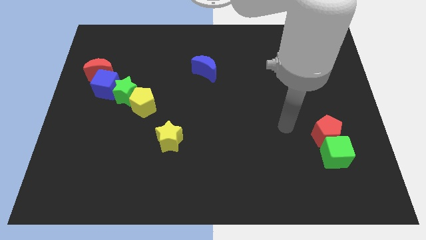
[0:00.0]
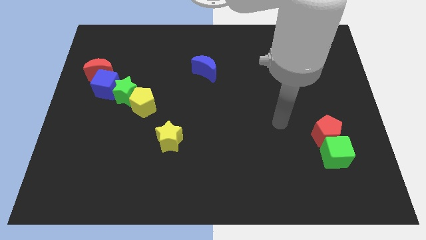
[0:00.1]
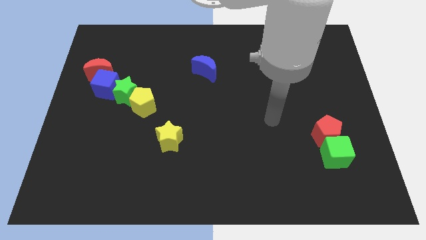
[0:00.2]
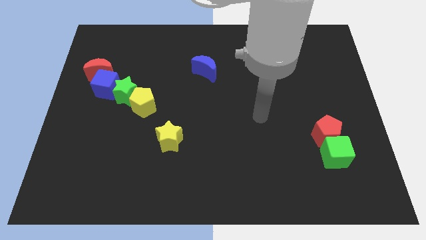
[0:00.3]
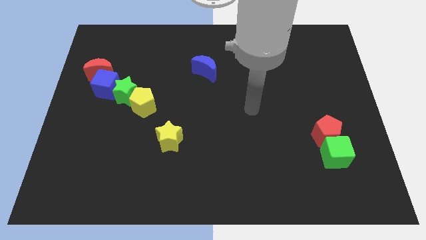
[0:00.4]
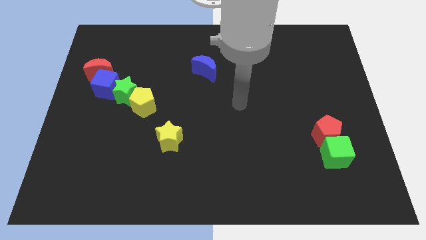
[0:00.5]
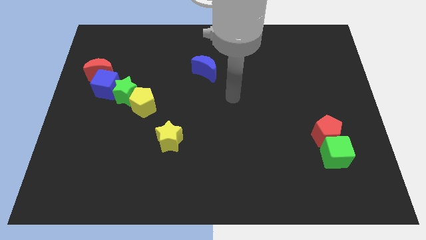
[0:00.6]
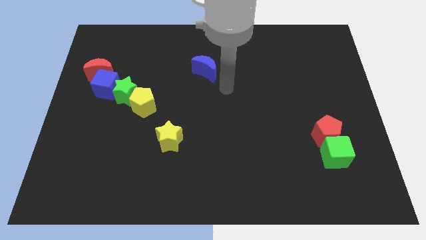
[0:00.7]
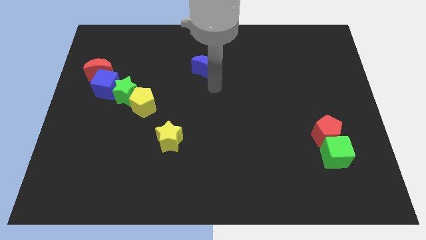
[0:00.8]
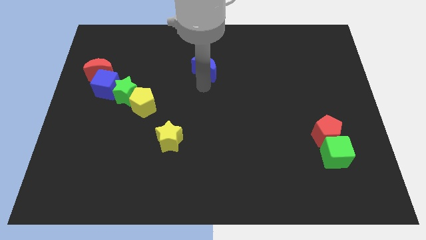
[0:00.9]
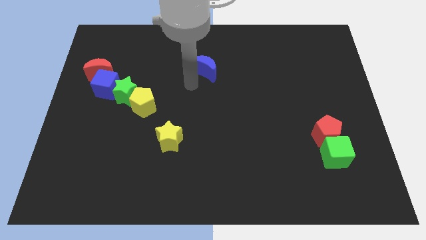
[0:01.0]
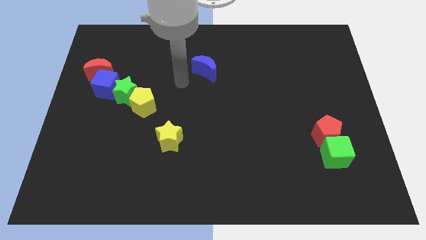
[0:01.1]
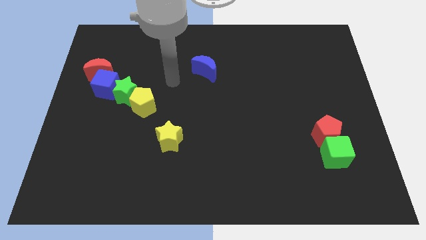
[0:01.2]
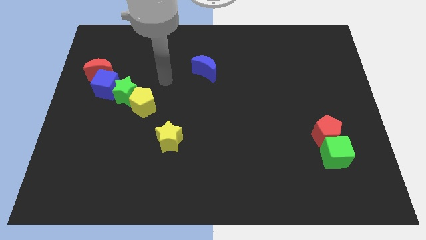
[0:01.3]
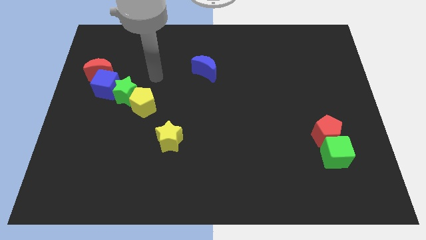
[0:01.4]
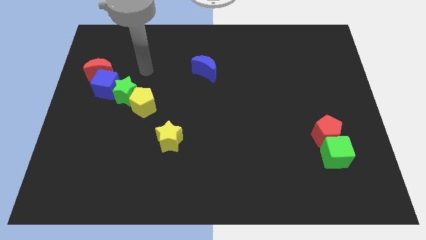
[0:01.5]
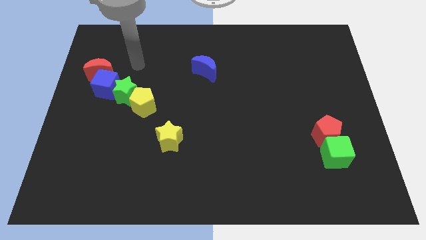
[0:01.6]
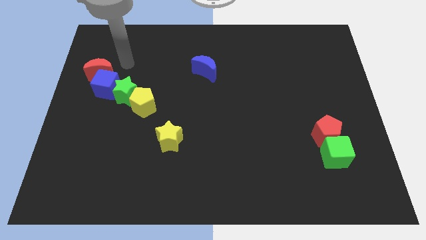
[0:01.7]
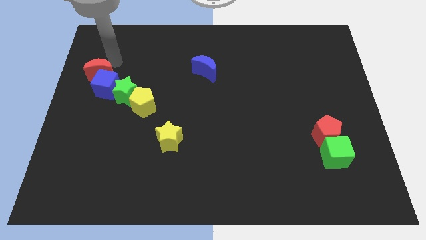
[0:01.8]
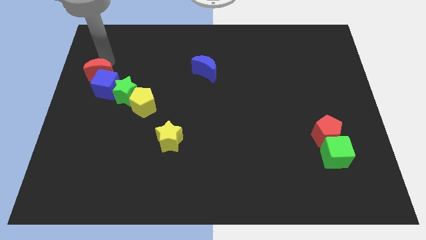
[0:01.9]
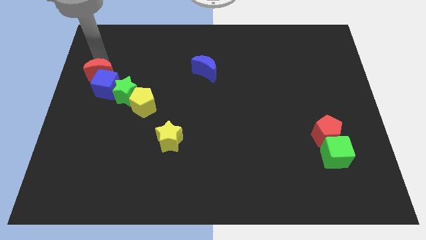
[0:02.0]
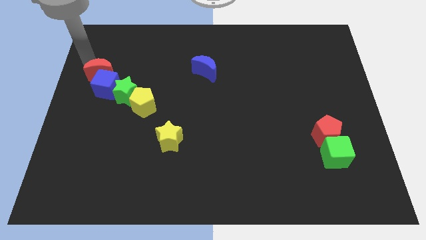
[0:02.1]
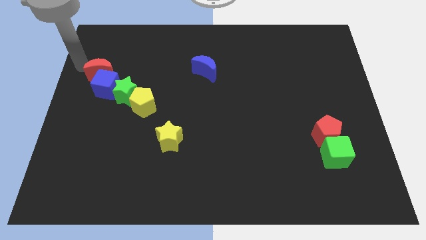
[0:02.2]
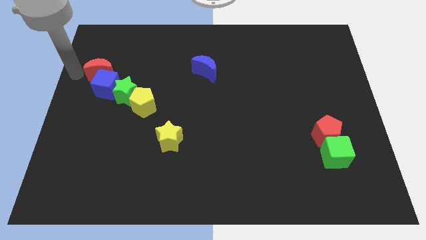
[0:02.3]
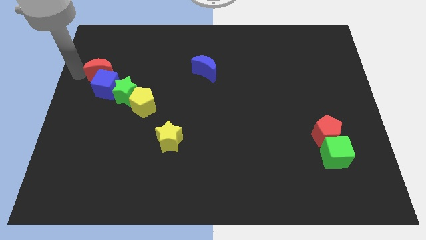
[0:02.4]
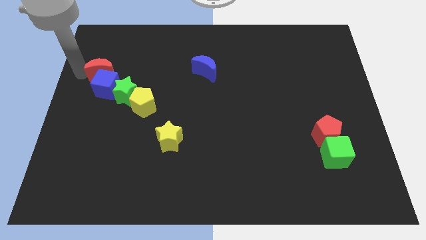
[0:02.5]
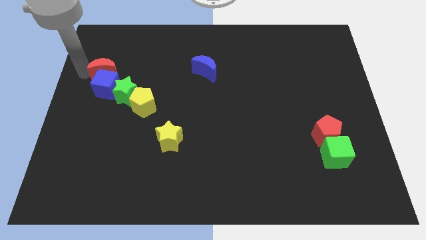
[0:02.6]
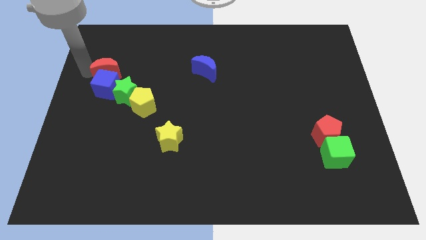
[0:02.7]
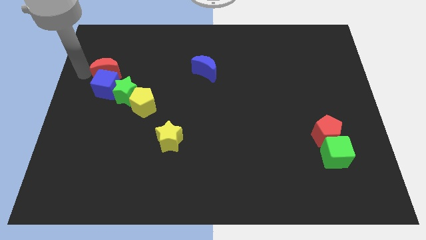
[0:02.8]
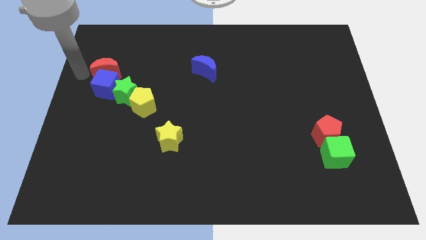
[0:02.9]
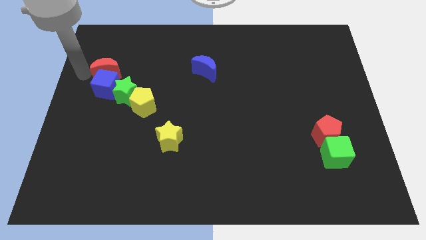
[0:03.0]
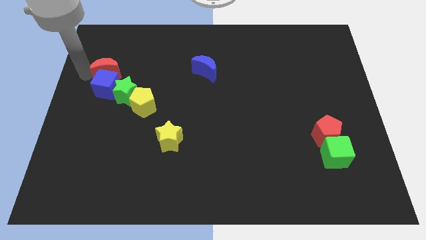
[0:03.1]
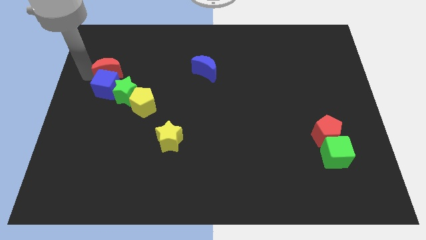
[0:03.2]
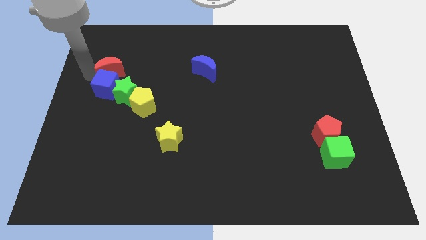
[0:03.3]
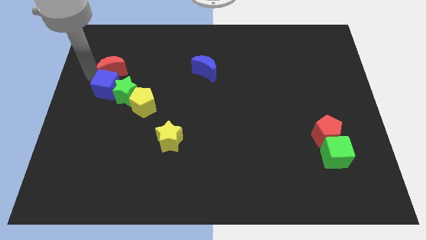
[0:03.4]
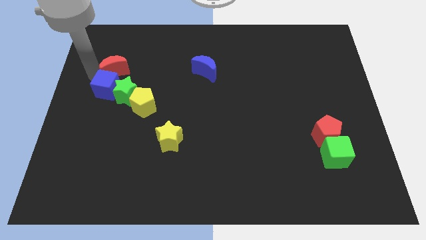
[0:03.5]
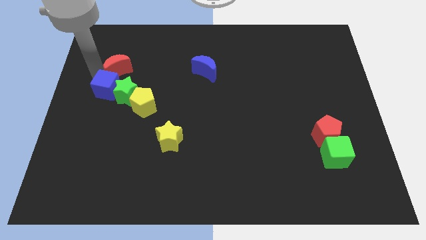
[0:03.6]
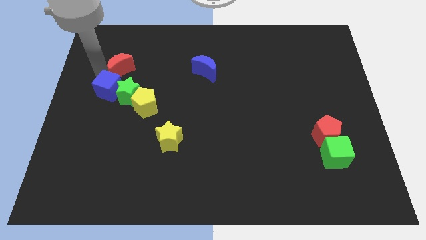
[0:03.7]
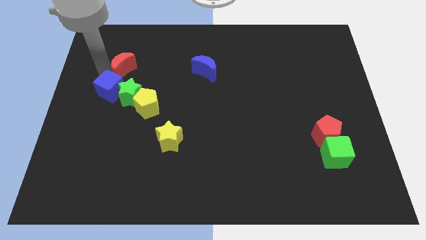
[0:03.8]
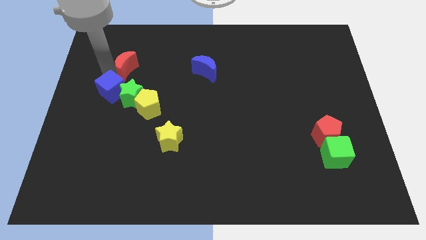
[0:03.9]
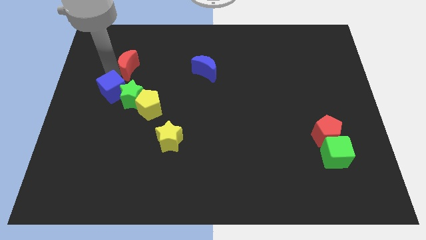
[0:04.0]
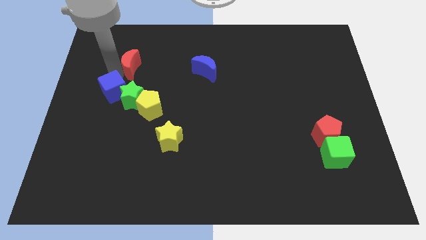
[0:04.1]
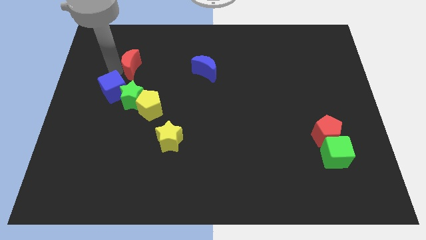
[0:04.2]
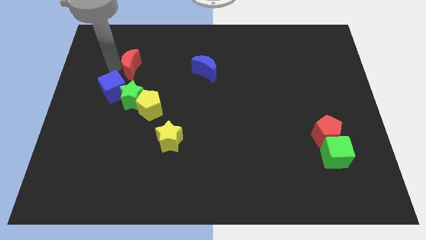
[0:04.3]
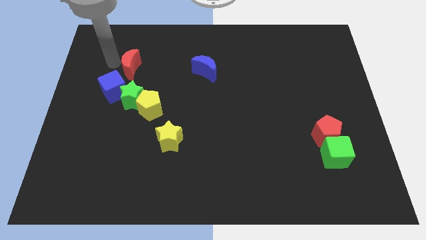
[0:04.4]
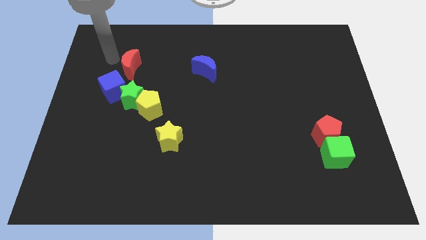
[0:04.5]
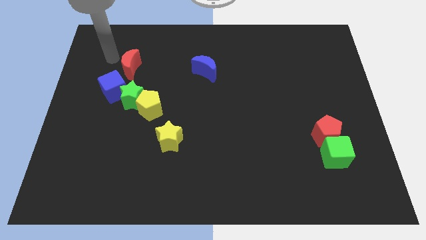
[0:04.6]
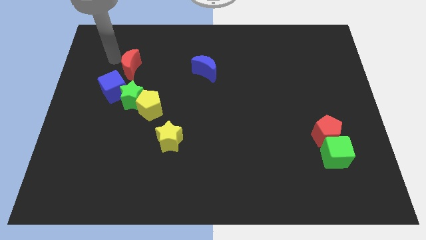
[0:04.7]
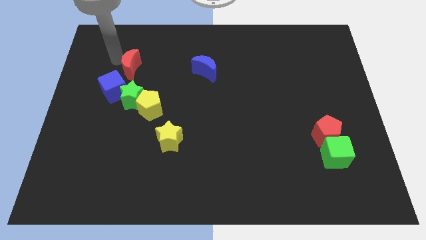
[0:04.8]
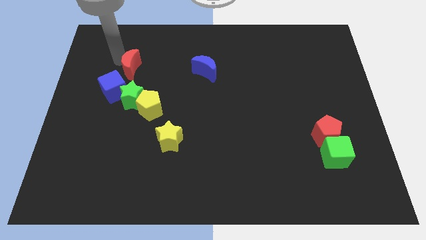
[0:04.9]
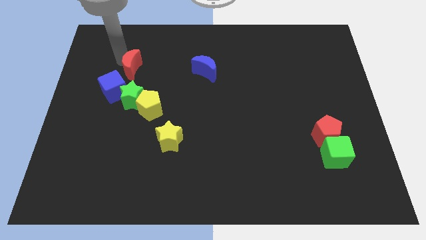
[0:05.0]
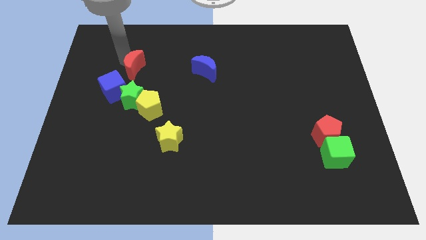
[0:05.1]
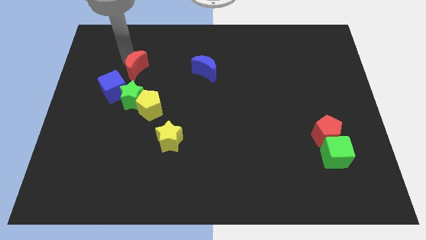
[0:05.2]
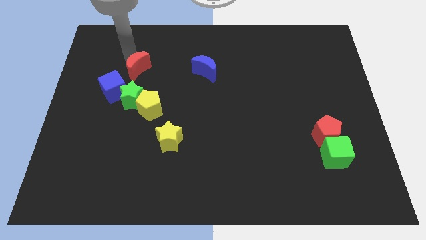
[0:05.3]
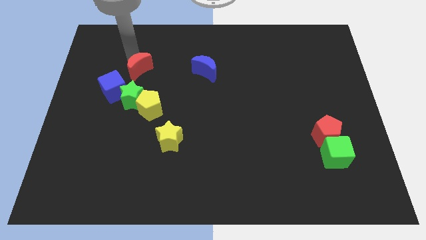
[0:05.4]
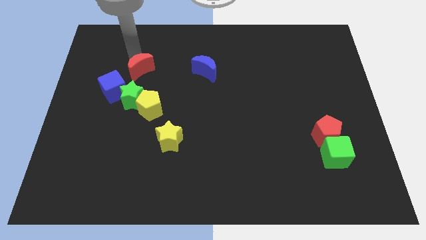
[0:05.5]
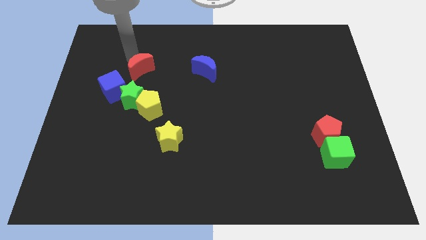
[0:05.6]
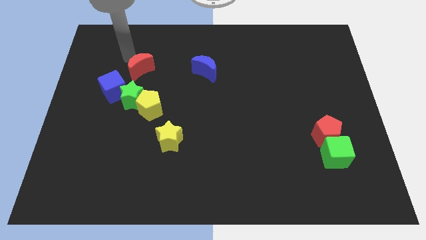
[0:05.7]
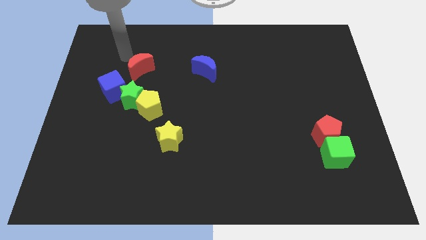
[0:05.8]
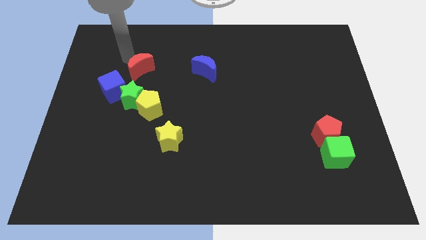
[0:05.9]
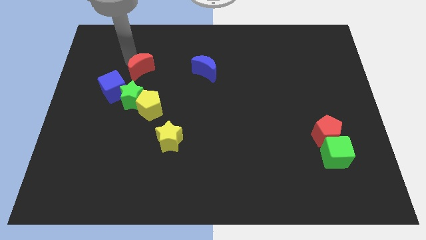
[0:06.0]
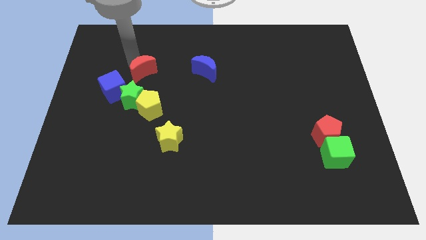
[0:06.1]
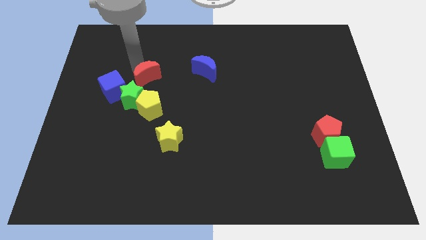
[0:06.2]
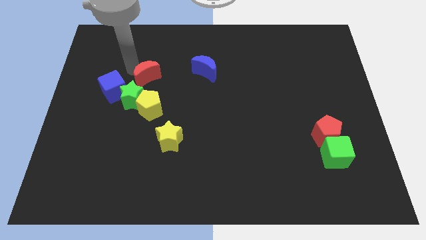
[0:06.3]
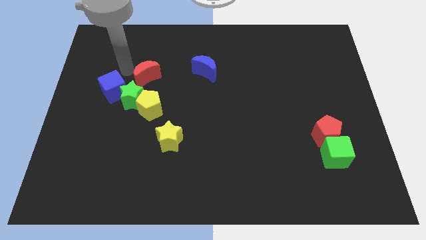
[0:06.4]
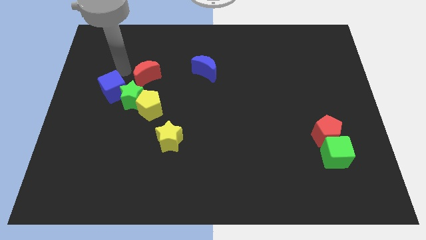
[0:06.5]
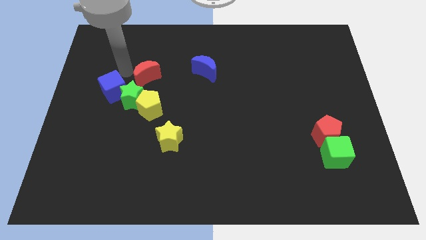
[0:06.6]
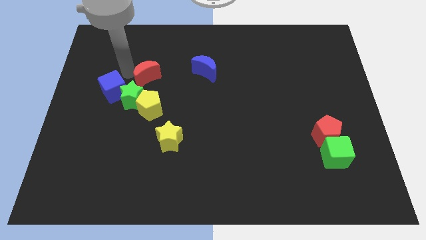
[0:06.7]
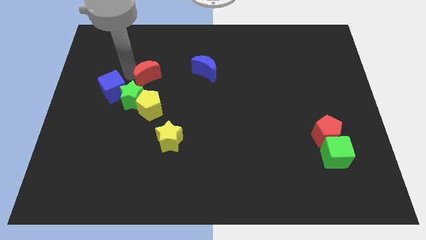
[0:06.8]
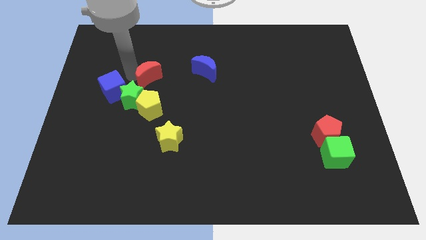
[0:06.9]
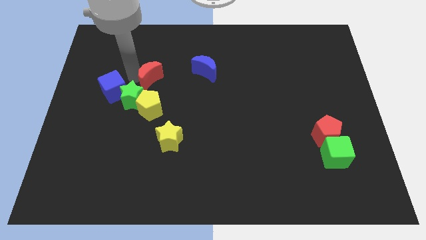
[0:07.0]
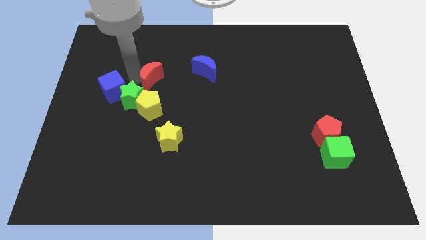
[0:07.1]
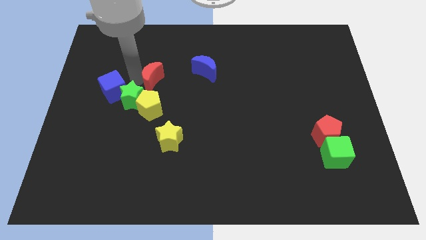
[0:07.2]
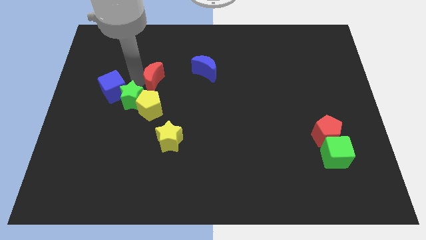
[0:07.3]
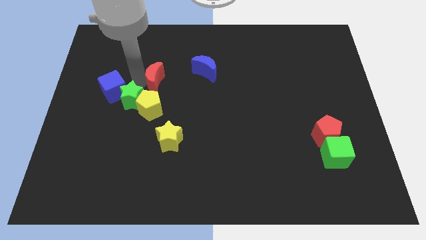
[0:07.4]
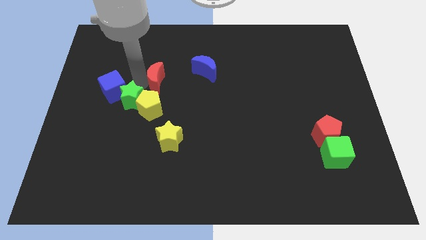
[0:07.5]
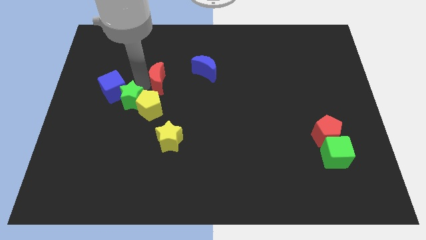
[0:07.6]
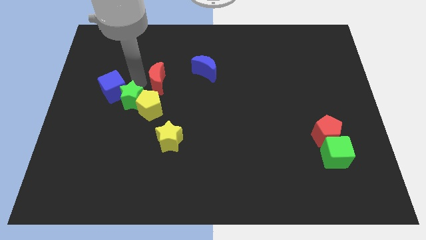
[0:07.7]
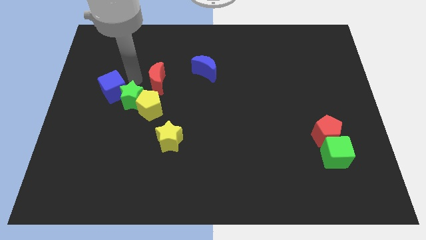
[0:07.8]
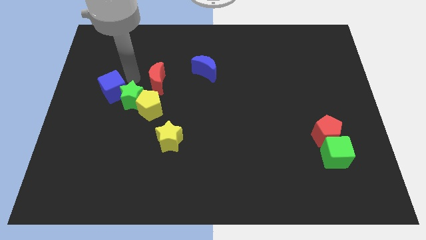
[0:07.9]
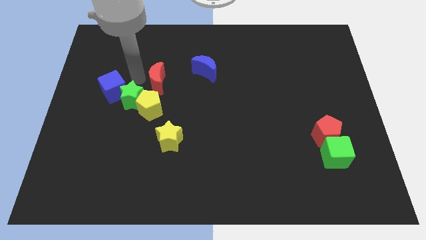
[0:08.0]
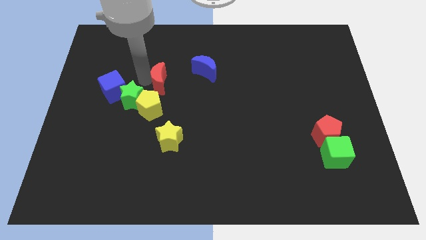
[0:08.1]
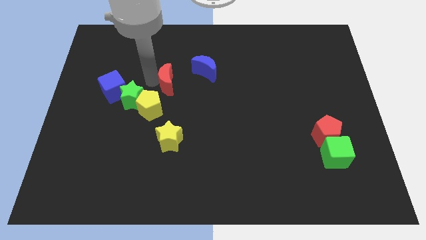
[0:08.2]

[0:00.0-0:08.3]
move the red moon diagonally down and to the left of the blue moon
